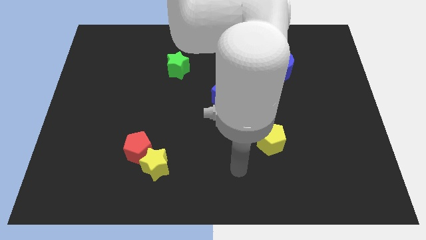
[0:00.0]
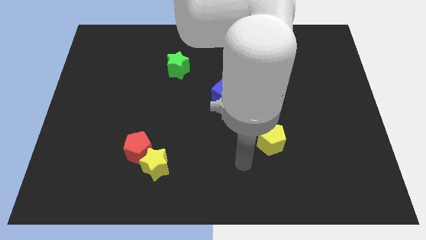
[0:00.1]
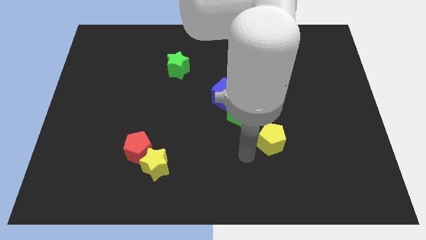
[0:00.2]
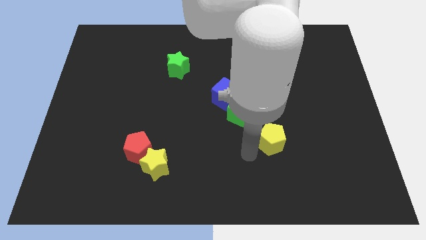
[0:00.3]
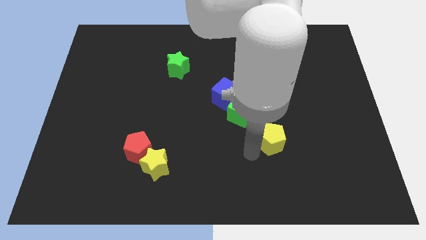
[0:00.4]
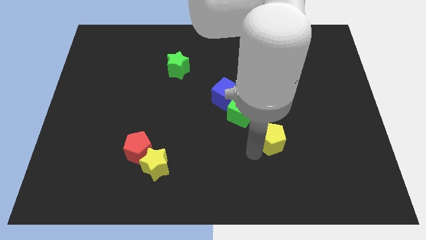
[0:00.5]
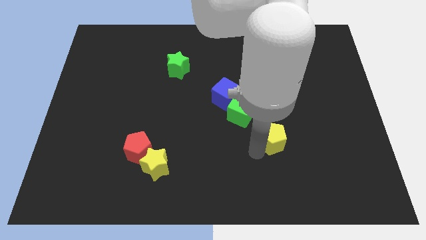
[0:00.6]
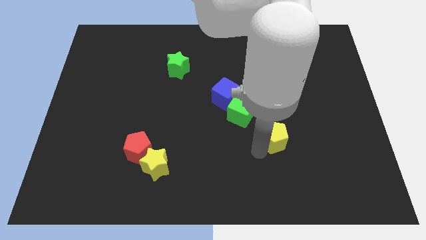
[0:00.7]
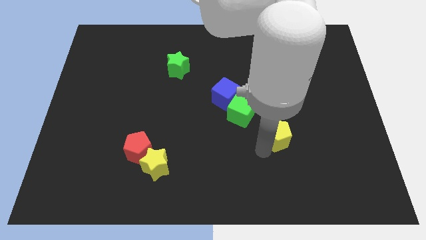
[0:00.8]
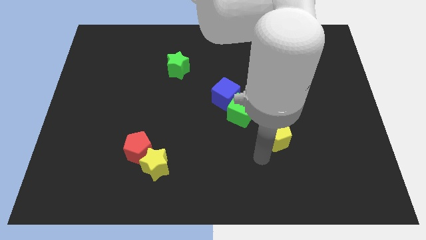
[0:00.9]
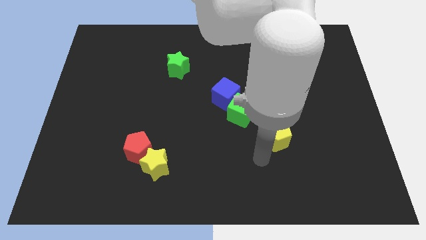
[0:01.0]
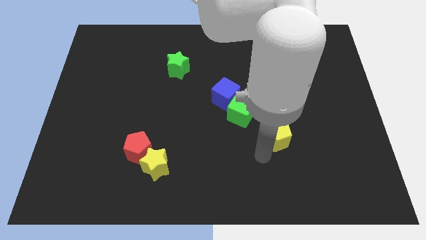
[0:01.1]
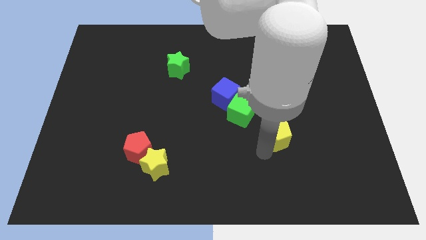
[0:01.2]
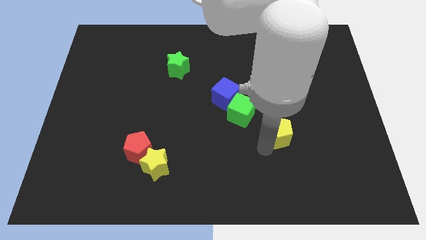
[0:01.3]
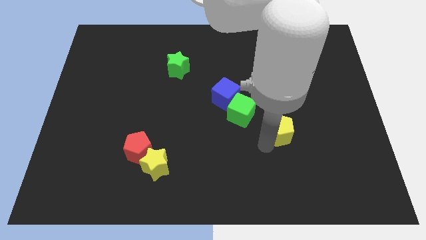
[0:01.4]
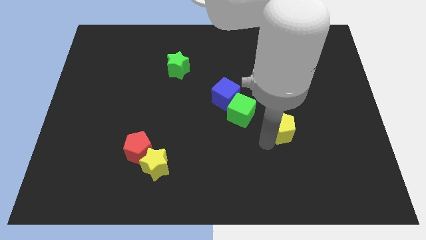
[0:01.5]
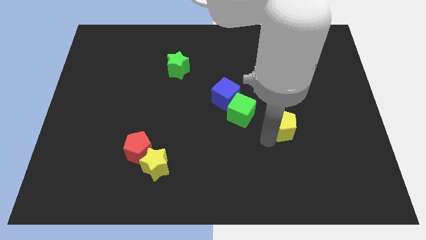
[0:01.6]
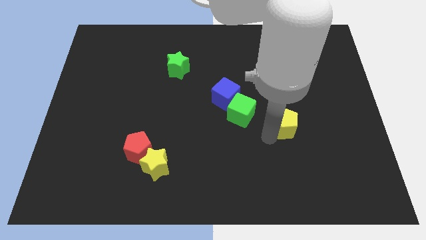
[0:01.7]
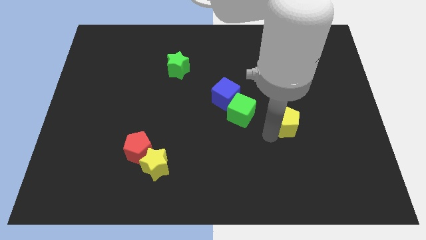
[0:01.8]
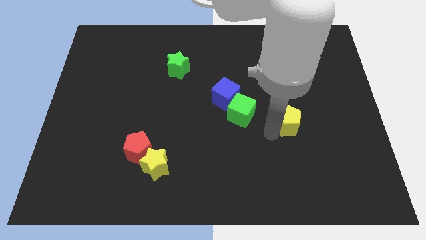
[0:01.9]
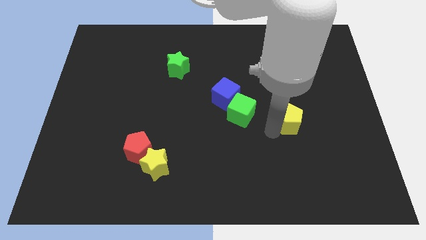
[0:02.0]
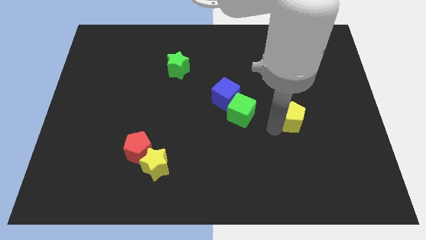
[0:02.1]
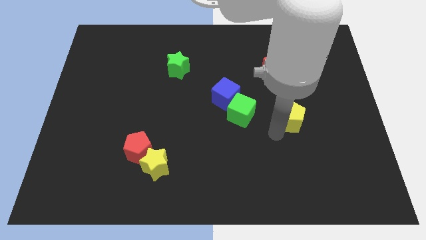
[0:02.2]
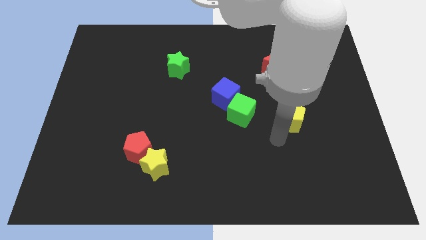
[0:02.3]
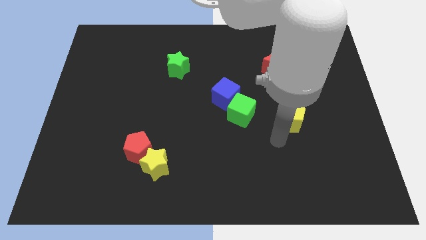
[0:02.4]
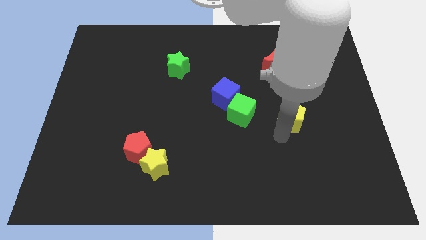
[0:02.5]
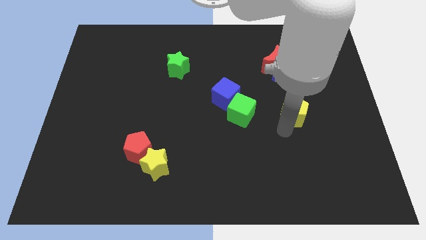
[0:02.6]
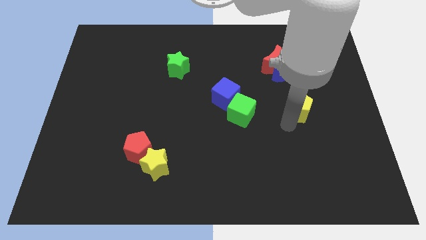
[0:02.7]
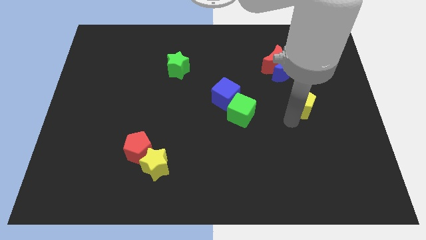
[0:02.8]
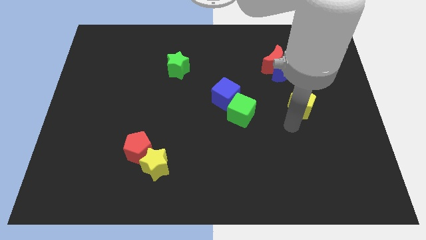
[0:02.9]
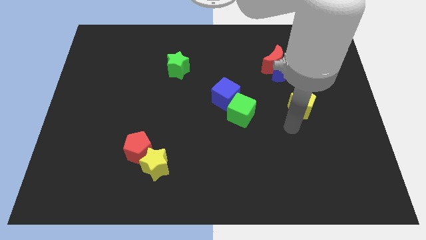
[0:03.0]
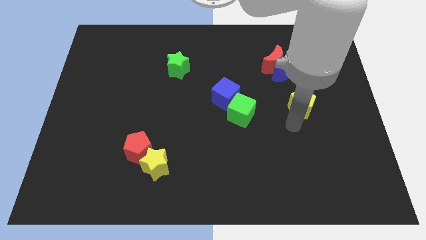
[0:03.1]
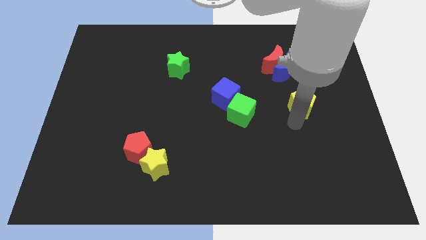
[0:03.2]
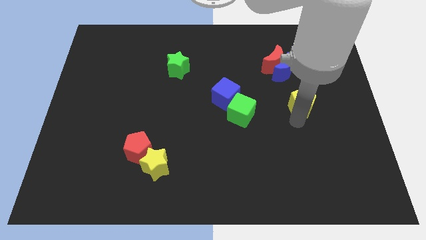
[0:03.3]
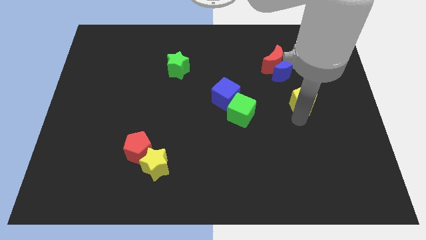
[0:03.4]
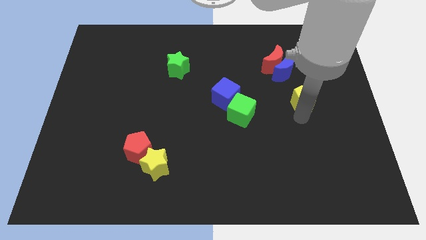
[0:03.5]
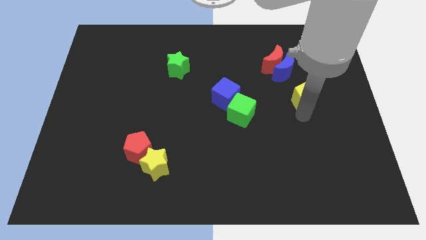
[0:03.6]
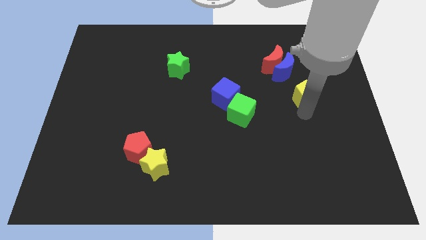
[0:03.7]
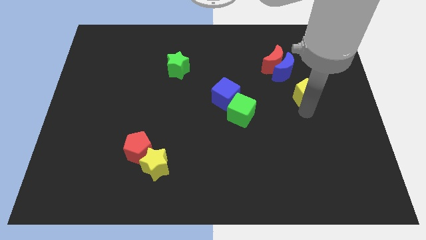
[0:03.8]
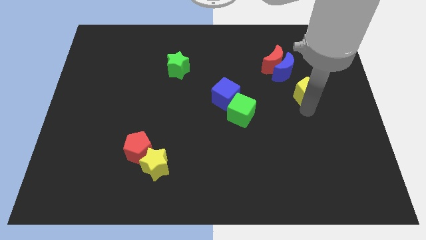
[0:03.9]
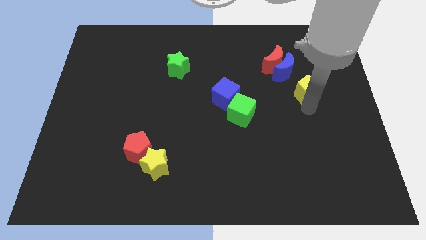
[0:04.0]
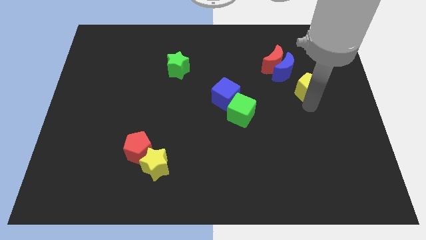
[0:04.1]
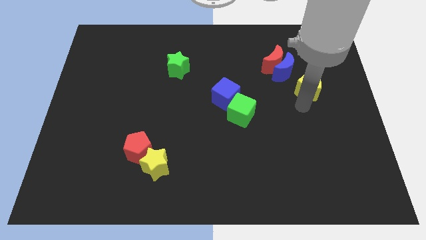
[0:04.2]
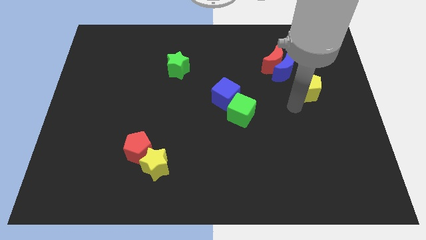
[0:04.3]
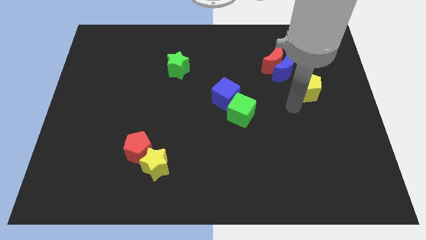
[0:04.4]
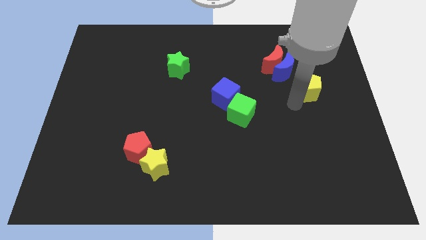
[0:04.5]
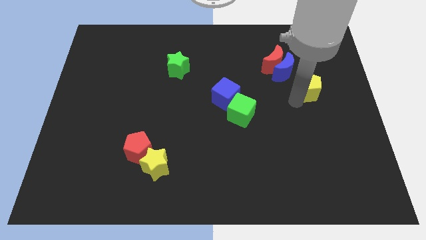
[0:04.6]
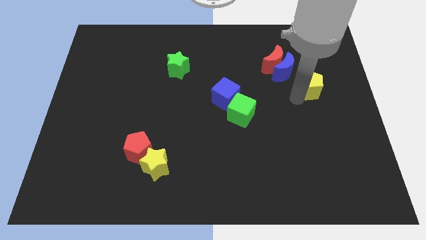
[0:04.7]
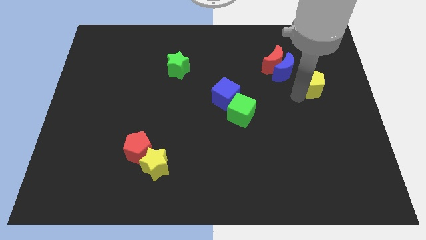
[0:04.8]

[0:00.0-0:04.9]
push the yellow pentagon to the right side of the blue moon

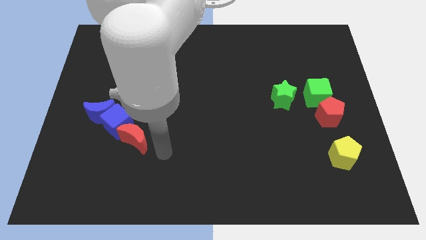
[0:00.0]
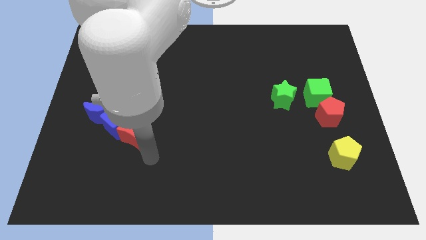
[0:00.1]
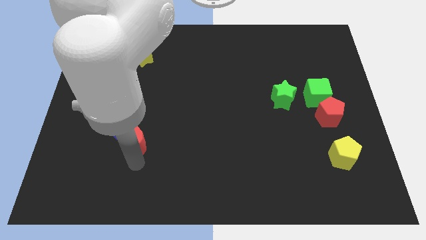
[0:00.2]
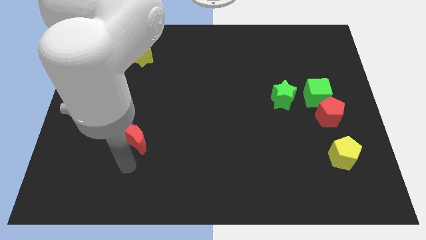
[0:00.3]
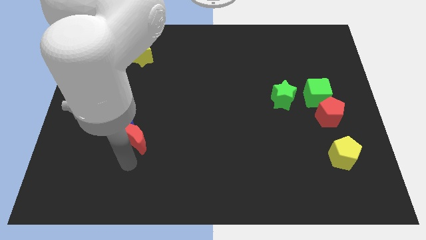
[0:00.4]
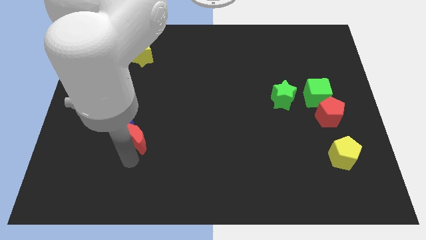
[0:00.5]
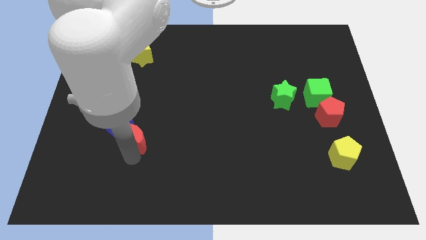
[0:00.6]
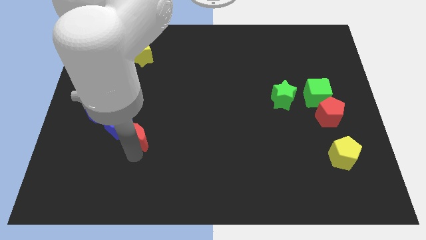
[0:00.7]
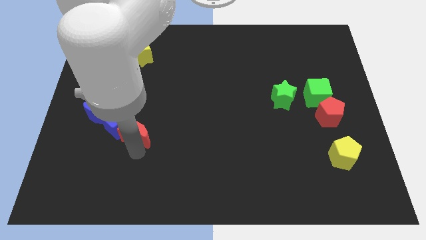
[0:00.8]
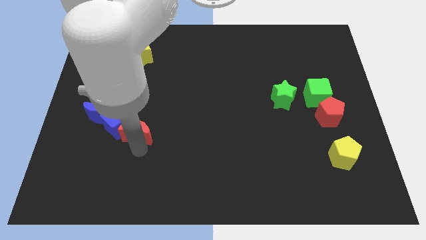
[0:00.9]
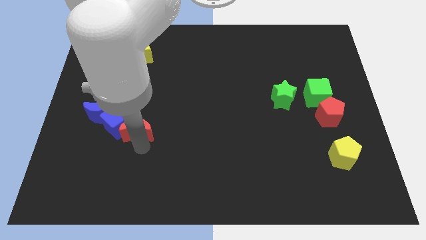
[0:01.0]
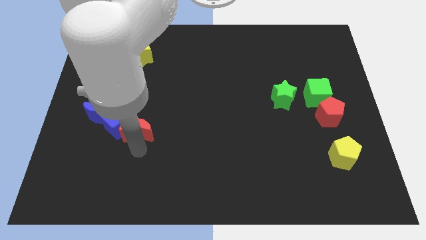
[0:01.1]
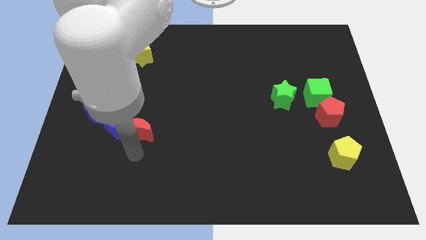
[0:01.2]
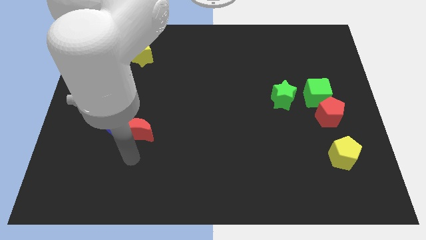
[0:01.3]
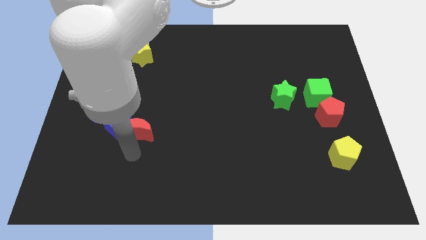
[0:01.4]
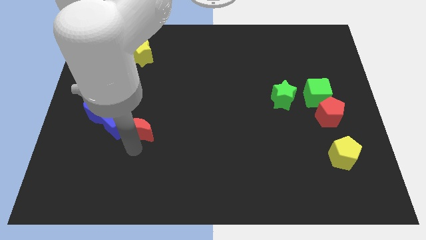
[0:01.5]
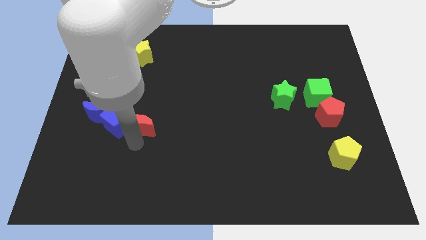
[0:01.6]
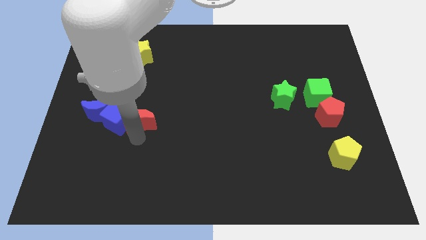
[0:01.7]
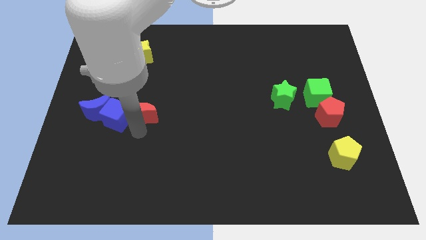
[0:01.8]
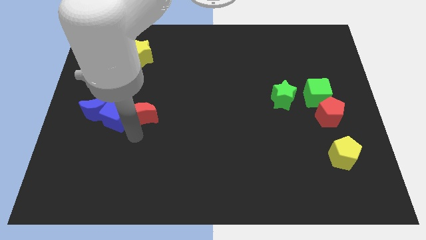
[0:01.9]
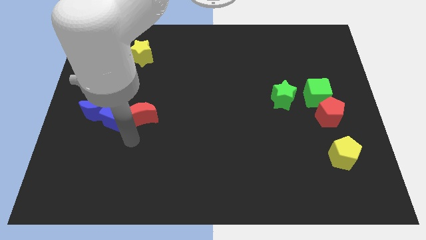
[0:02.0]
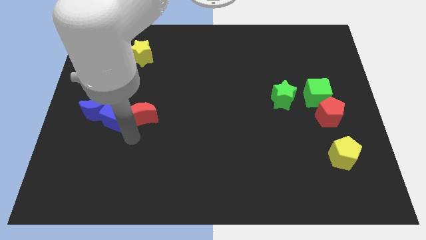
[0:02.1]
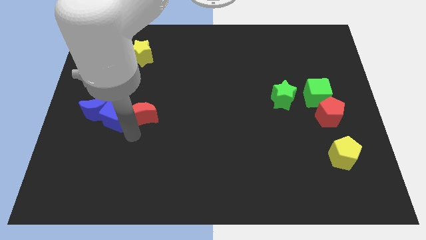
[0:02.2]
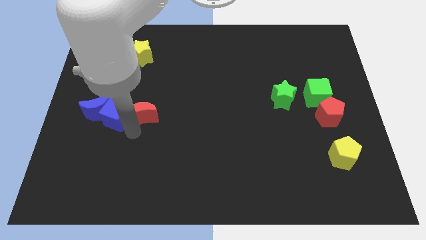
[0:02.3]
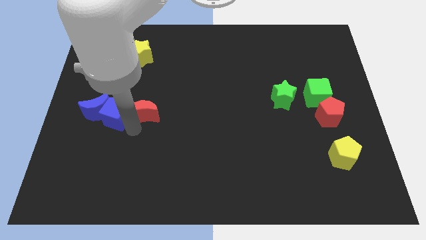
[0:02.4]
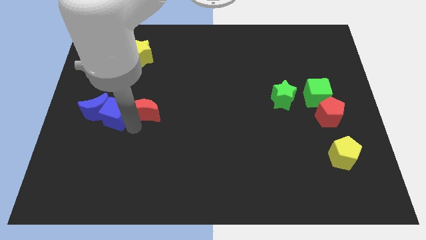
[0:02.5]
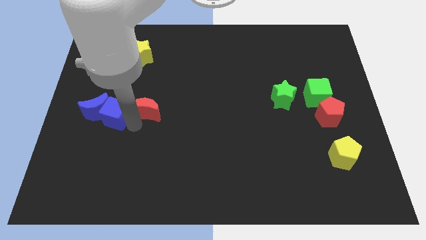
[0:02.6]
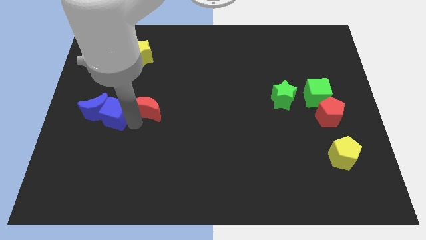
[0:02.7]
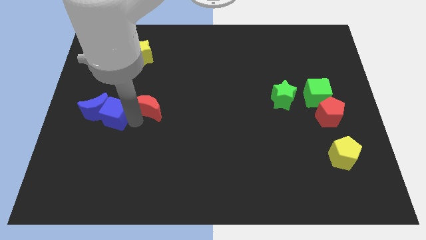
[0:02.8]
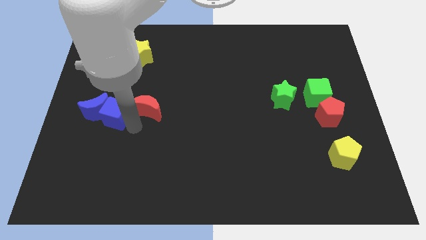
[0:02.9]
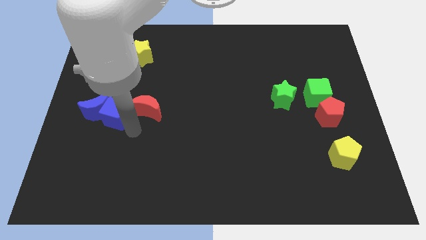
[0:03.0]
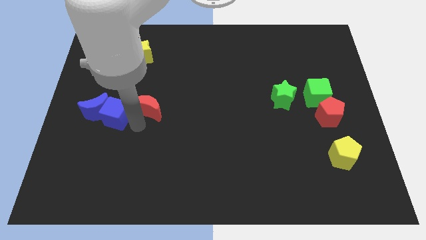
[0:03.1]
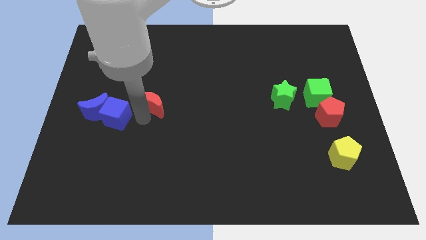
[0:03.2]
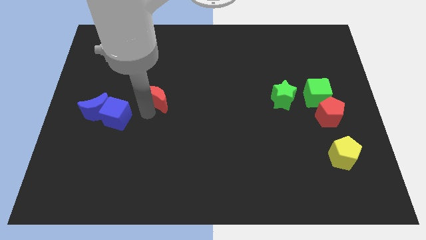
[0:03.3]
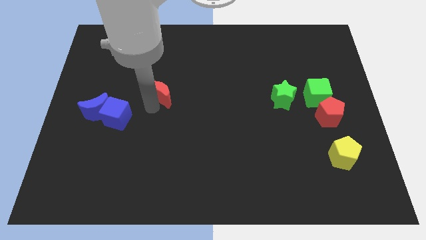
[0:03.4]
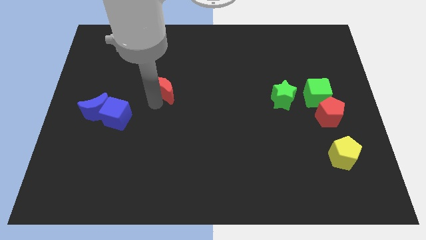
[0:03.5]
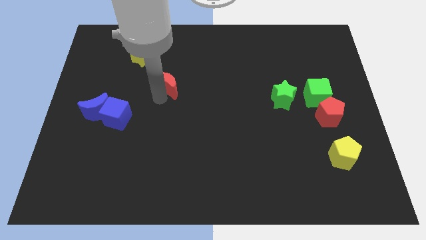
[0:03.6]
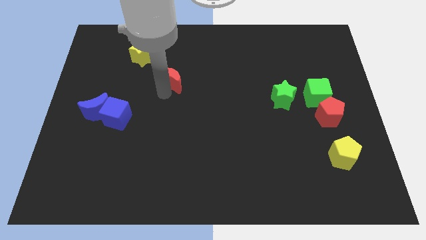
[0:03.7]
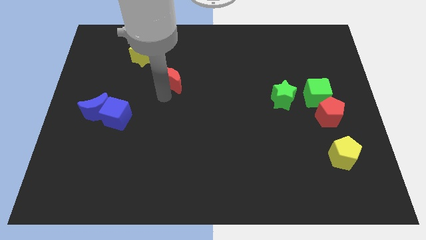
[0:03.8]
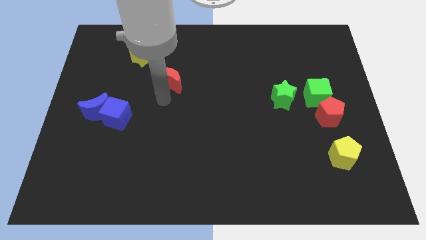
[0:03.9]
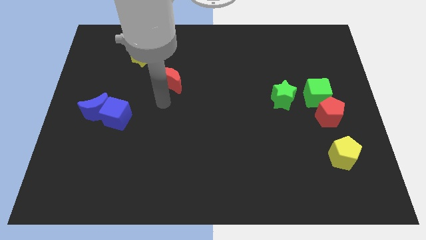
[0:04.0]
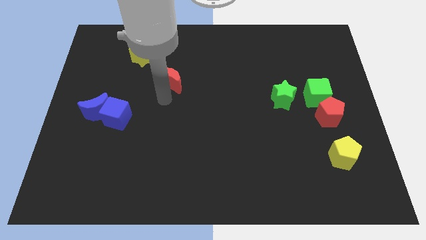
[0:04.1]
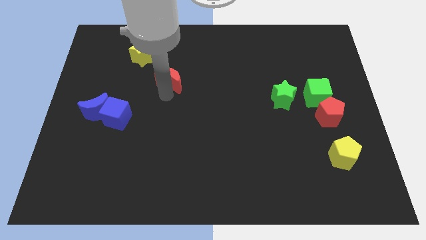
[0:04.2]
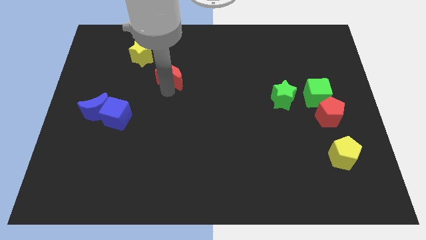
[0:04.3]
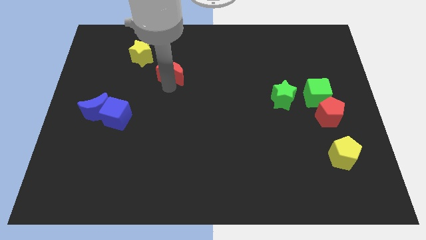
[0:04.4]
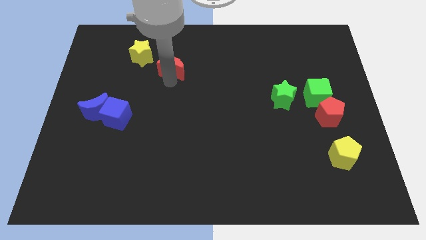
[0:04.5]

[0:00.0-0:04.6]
push the red moon to the right of the yellow star
